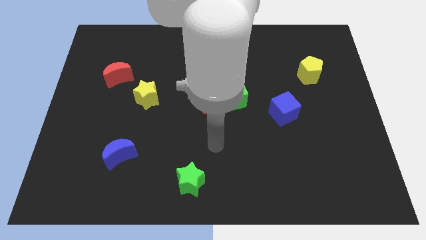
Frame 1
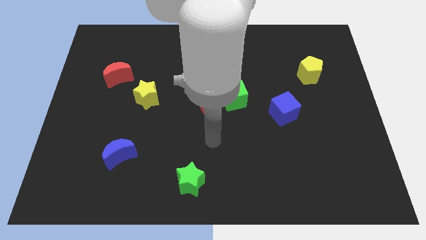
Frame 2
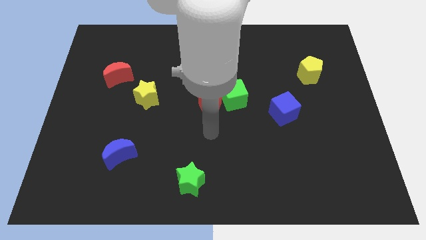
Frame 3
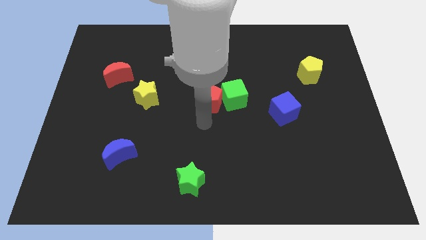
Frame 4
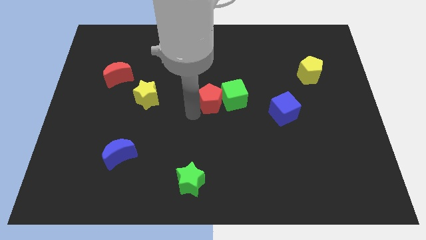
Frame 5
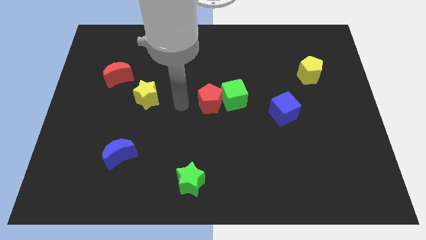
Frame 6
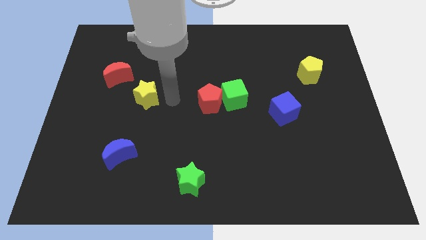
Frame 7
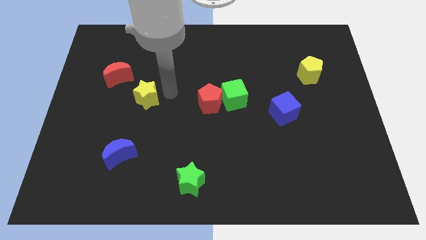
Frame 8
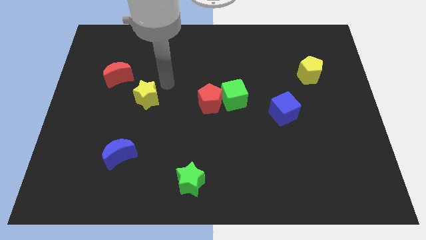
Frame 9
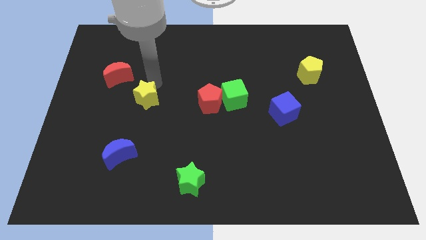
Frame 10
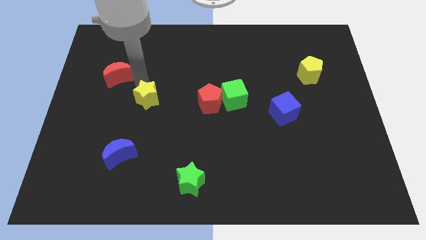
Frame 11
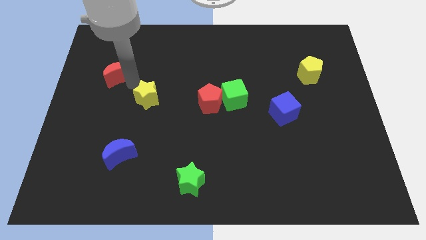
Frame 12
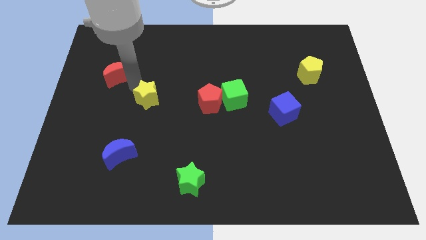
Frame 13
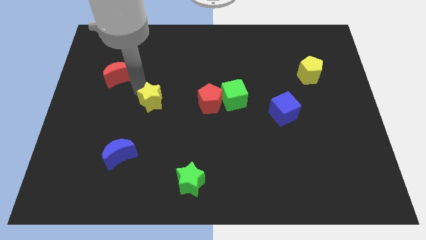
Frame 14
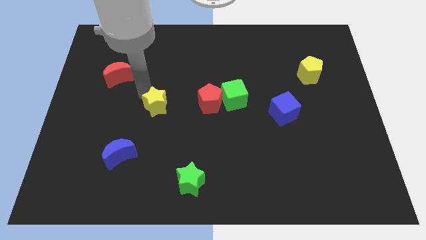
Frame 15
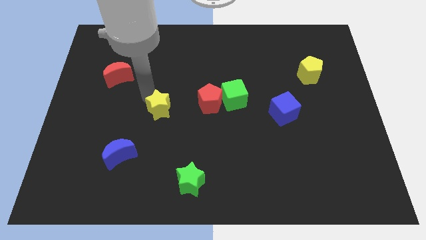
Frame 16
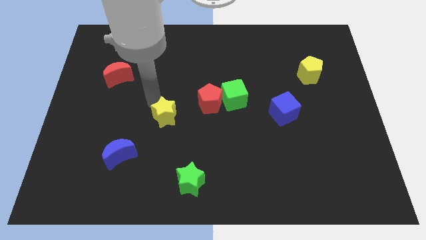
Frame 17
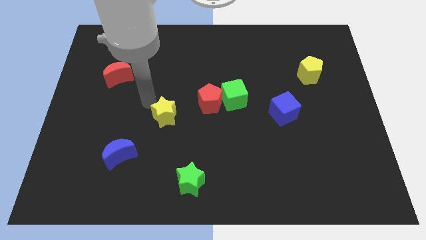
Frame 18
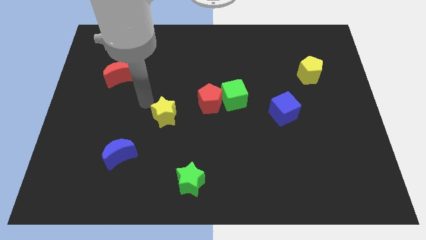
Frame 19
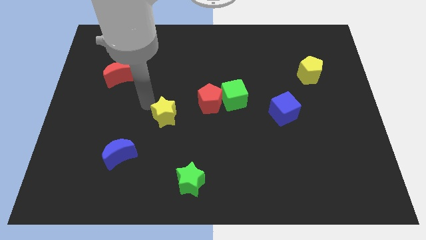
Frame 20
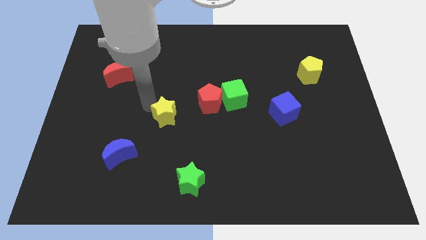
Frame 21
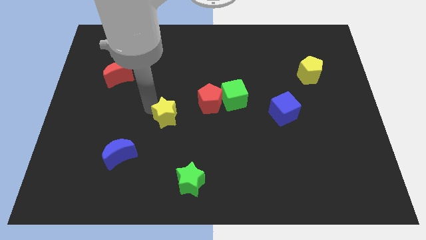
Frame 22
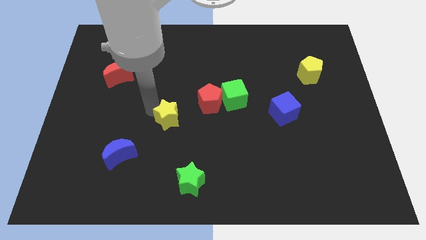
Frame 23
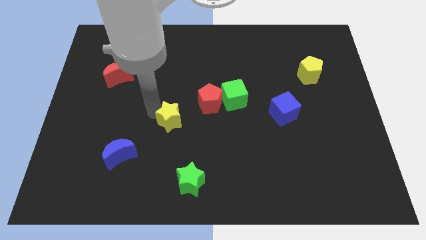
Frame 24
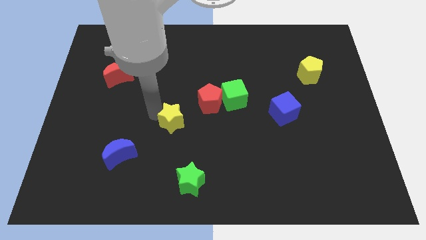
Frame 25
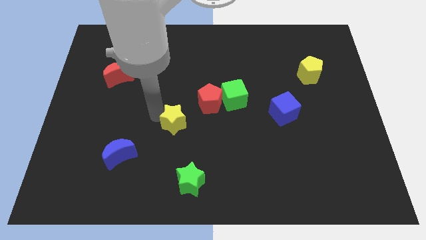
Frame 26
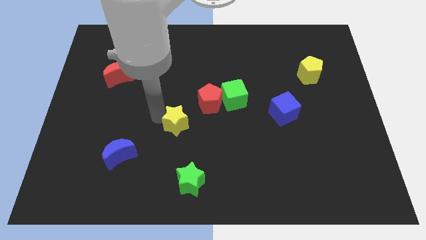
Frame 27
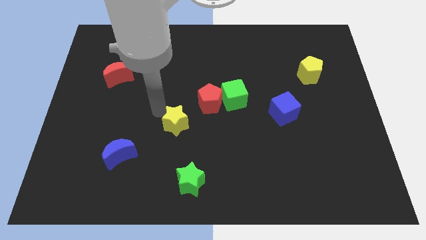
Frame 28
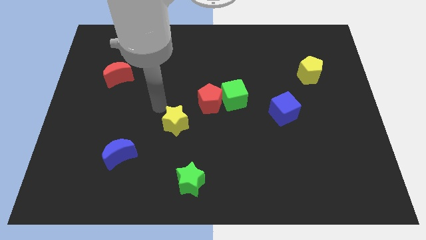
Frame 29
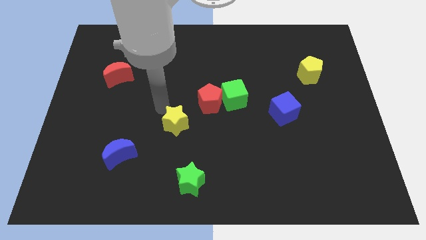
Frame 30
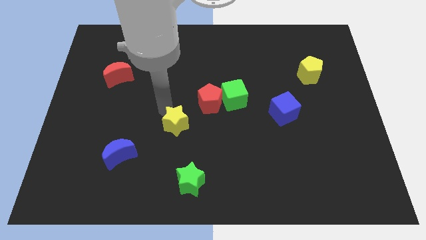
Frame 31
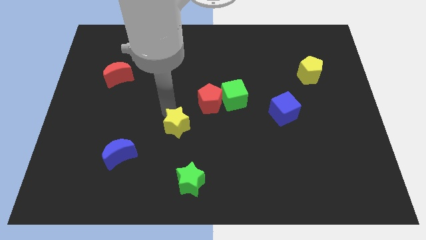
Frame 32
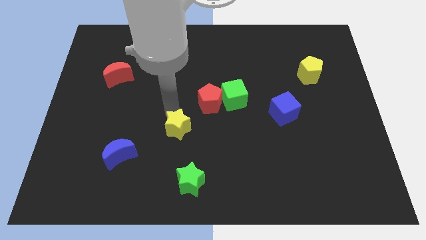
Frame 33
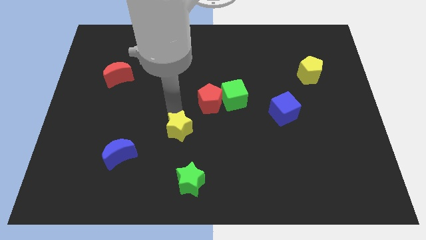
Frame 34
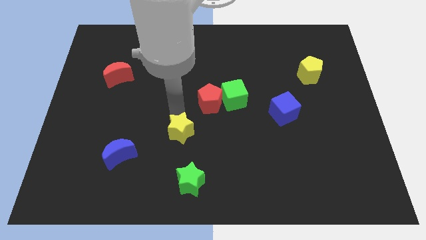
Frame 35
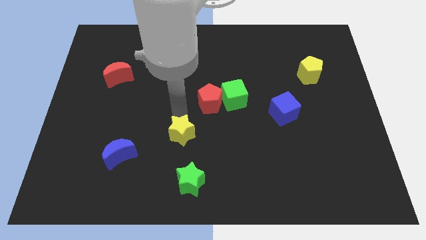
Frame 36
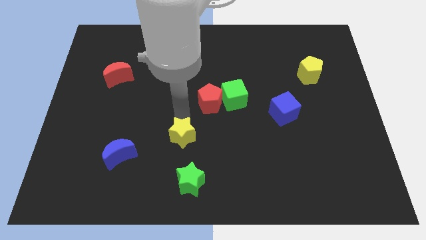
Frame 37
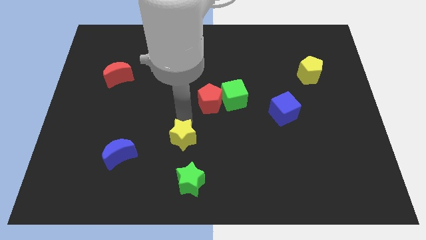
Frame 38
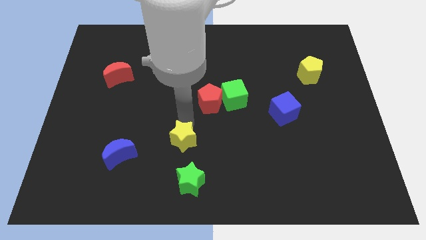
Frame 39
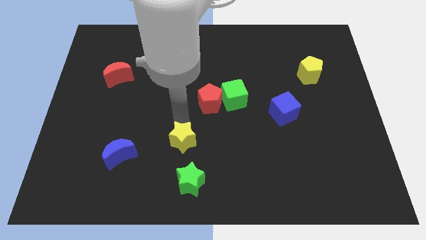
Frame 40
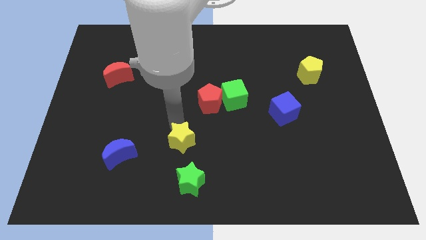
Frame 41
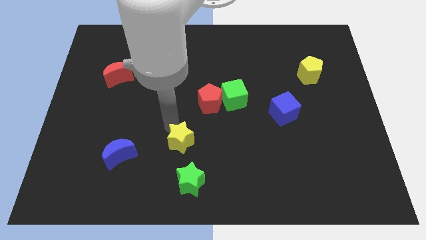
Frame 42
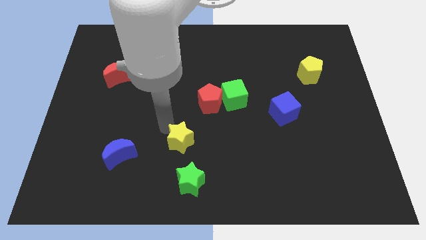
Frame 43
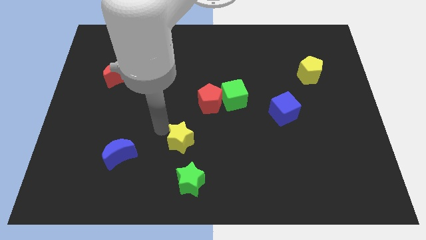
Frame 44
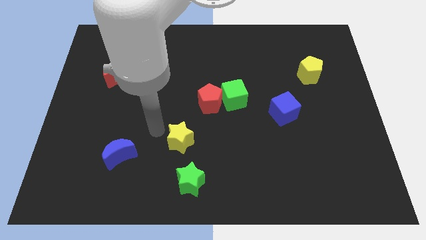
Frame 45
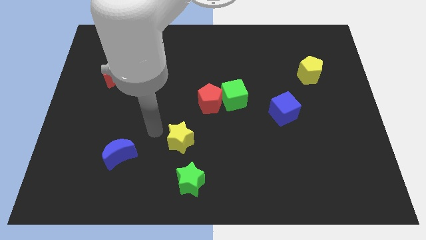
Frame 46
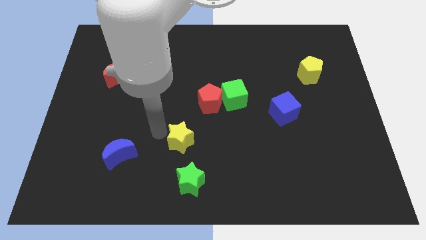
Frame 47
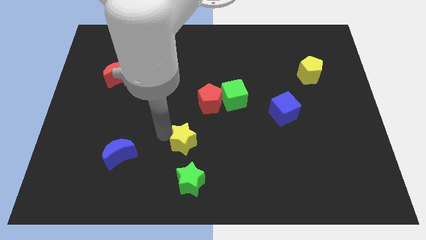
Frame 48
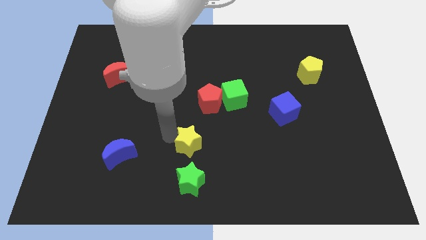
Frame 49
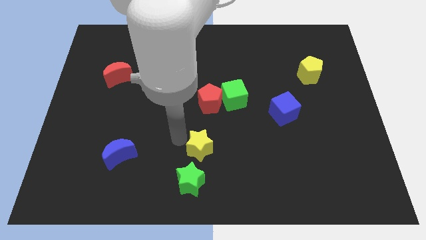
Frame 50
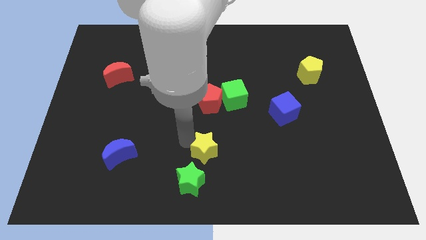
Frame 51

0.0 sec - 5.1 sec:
slide the yellow star diagonally down and right

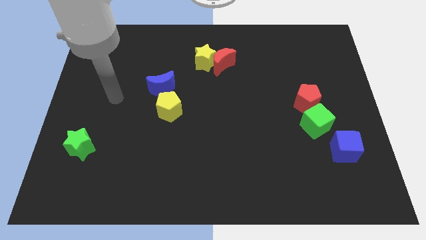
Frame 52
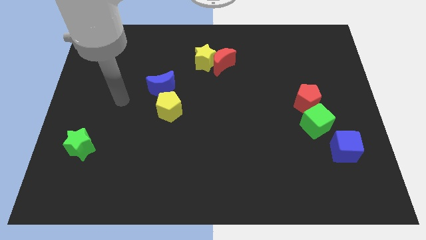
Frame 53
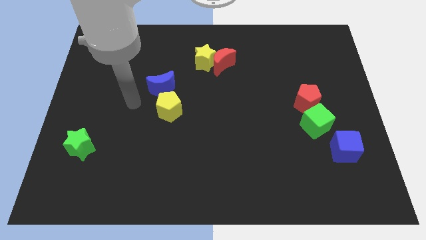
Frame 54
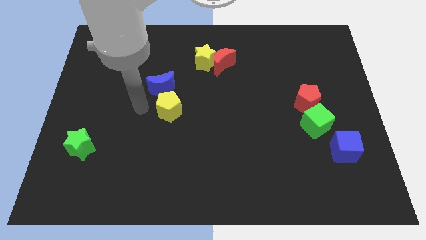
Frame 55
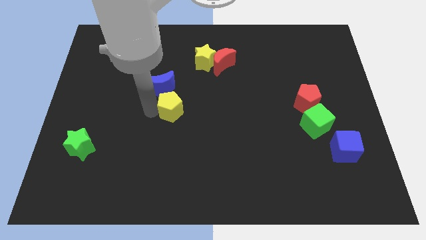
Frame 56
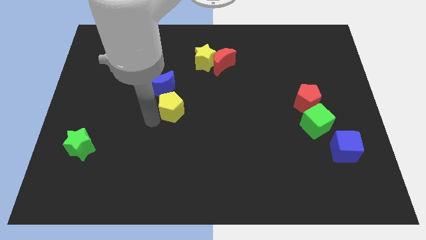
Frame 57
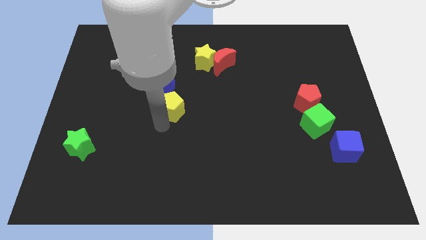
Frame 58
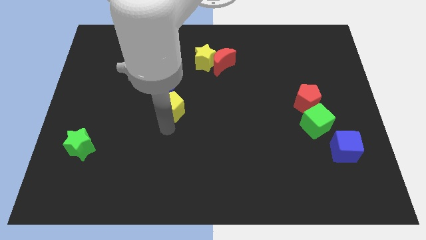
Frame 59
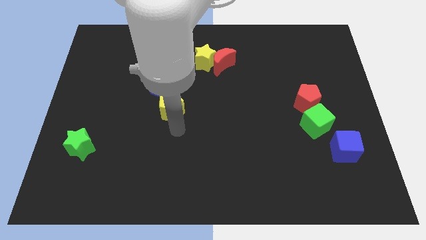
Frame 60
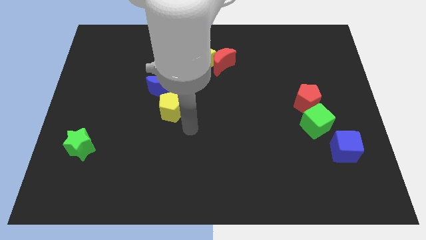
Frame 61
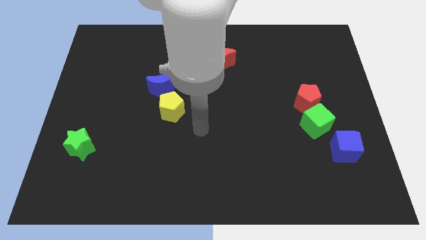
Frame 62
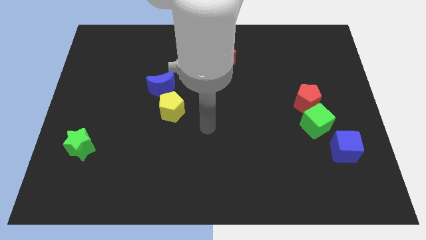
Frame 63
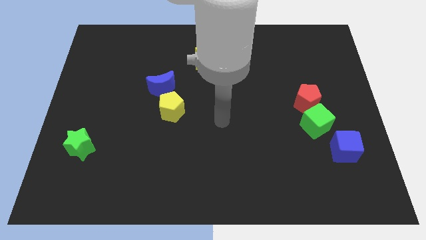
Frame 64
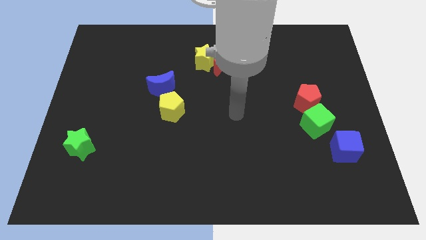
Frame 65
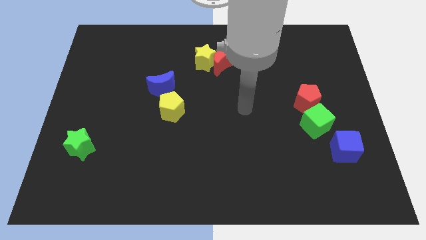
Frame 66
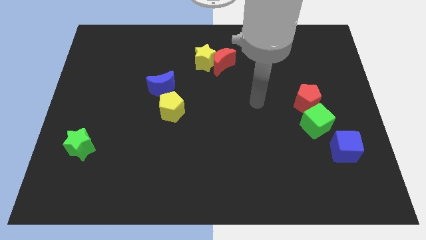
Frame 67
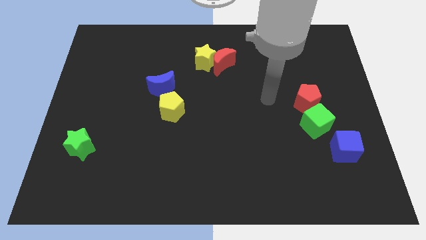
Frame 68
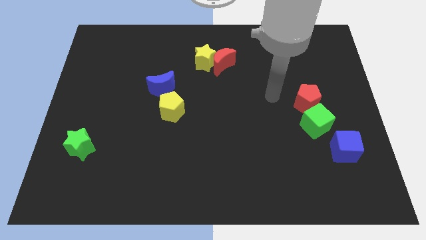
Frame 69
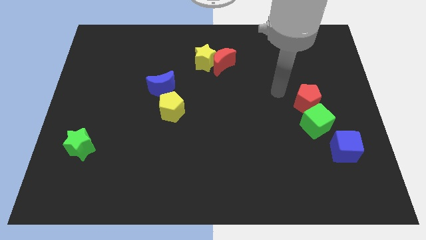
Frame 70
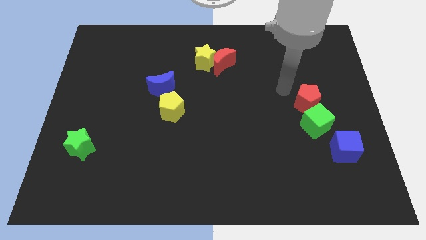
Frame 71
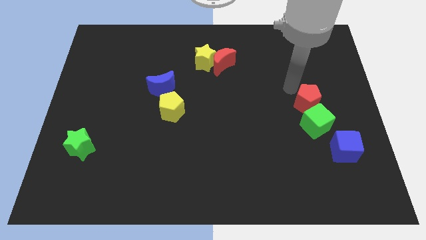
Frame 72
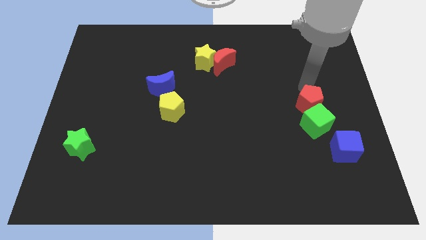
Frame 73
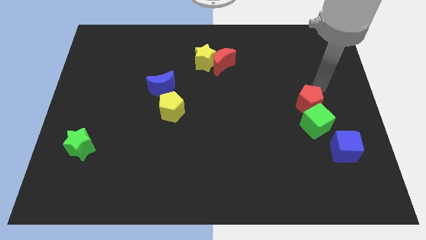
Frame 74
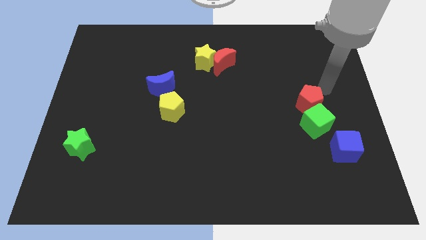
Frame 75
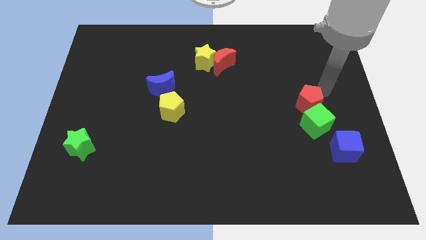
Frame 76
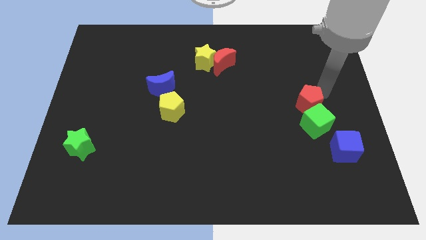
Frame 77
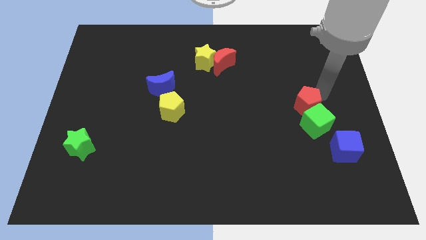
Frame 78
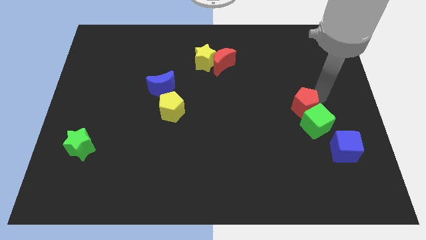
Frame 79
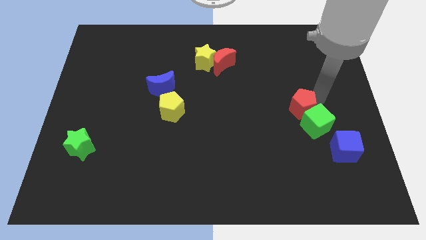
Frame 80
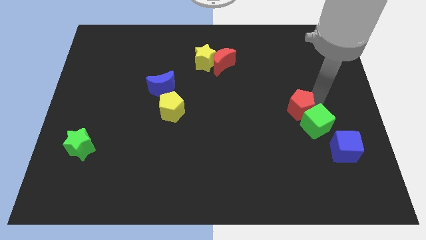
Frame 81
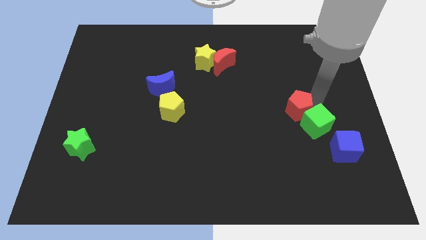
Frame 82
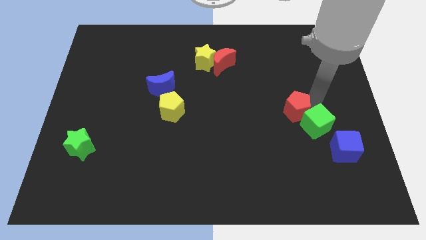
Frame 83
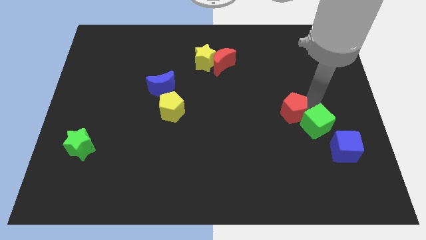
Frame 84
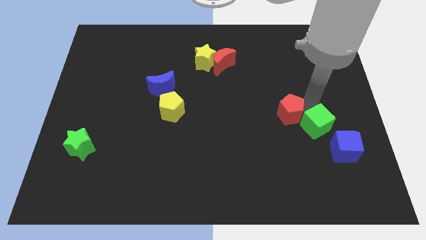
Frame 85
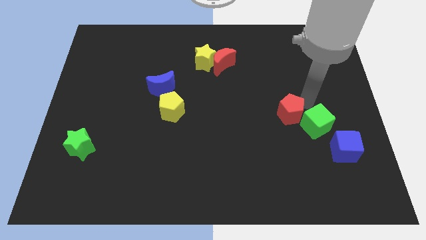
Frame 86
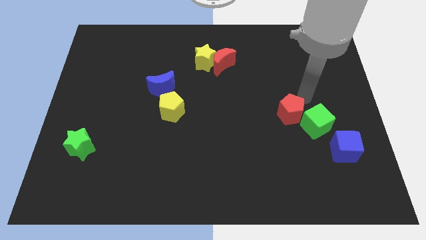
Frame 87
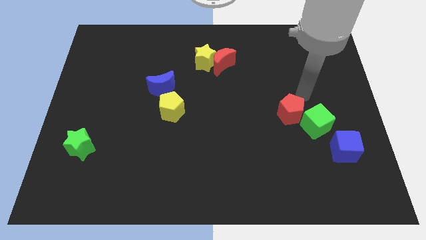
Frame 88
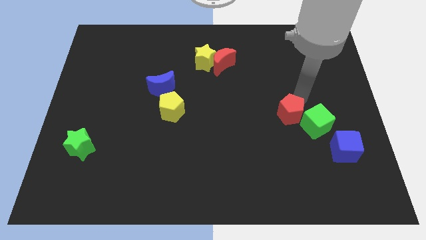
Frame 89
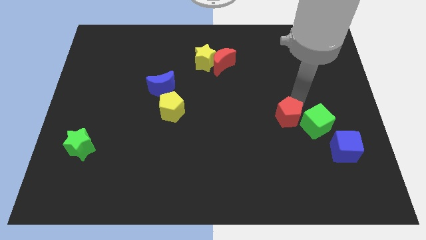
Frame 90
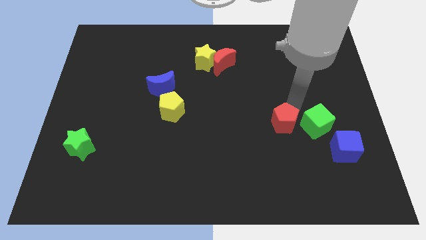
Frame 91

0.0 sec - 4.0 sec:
push the red pentagon diagonally down and to the left a bit
